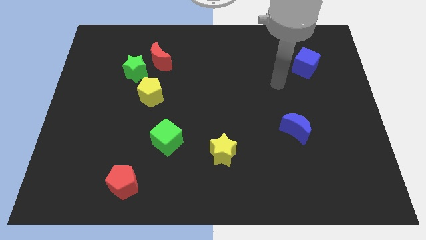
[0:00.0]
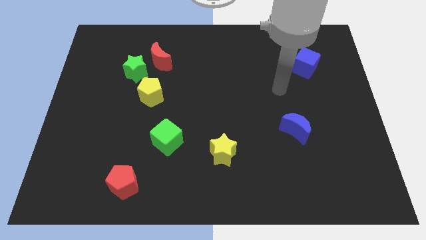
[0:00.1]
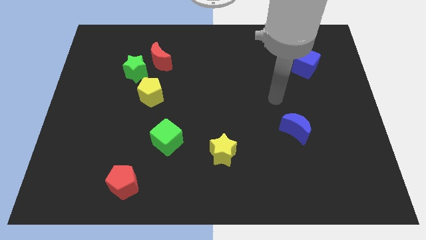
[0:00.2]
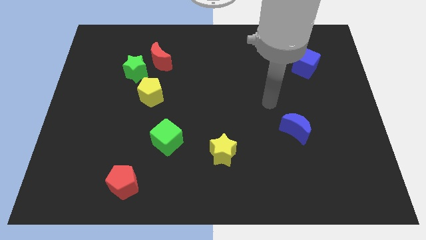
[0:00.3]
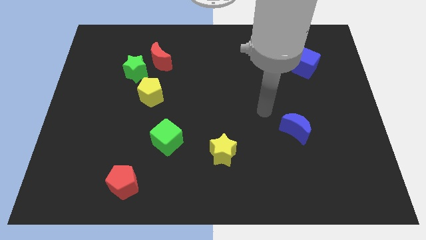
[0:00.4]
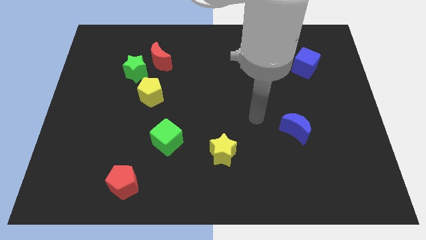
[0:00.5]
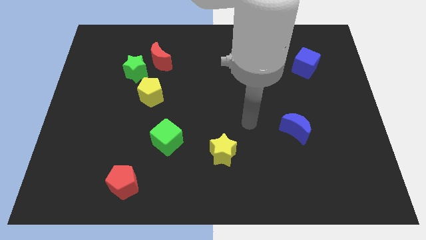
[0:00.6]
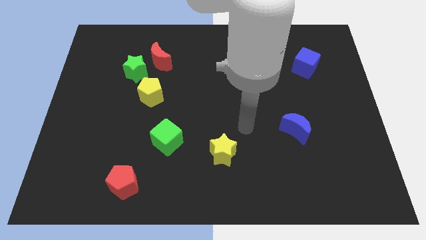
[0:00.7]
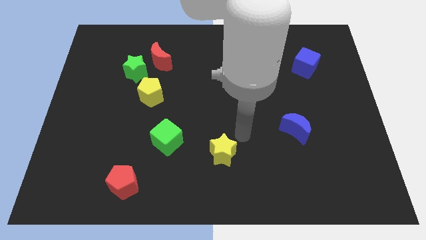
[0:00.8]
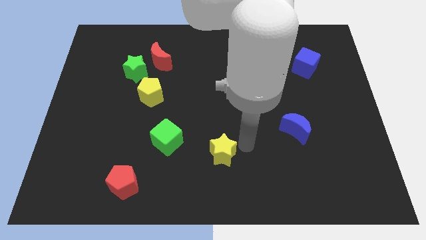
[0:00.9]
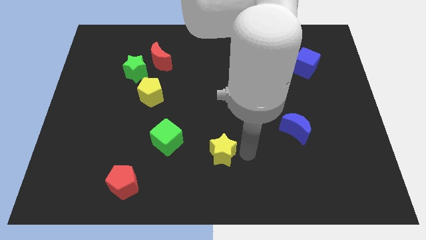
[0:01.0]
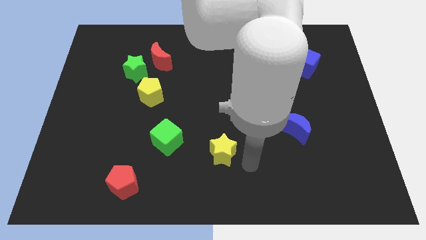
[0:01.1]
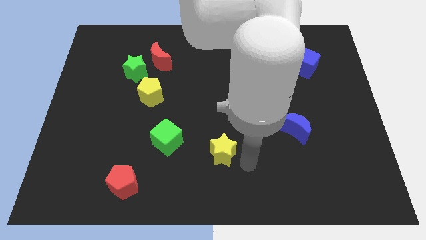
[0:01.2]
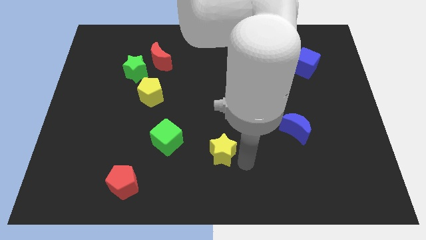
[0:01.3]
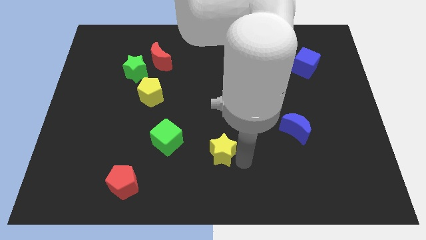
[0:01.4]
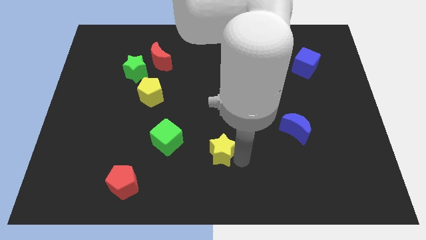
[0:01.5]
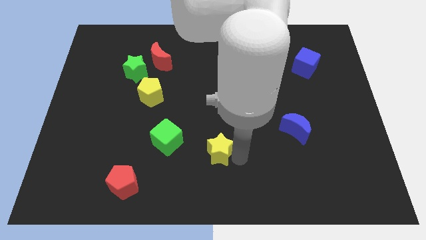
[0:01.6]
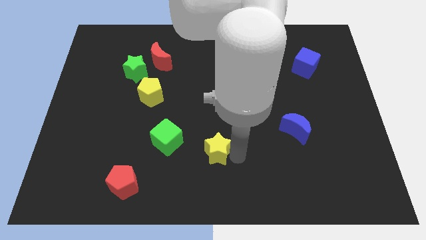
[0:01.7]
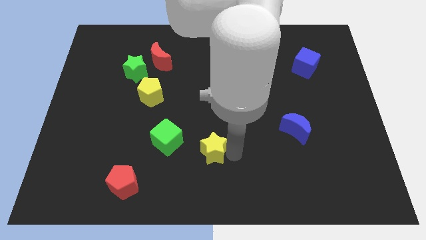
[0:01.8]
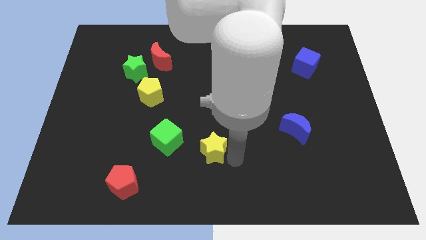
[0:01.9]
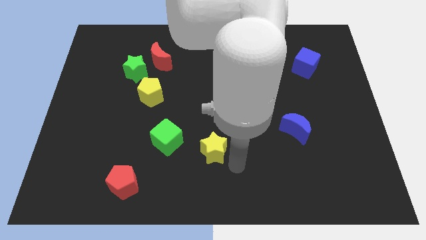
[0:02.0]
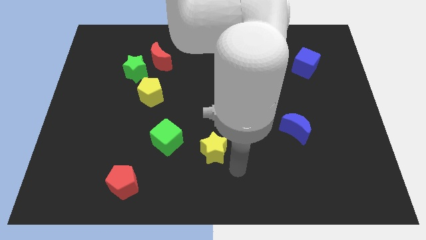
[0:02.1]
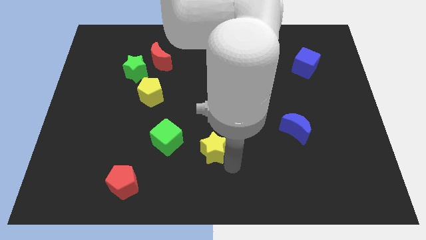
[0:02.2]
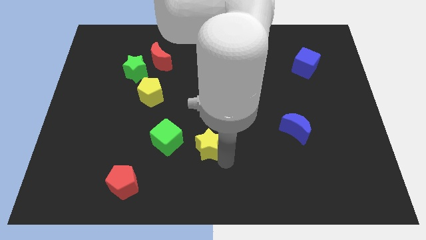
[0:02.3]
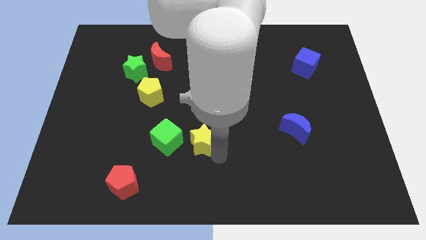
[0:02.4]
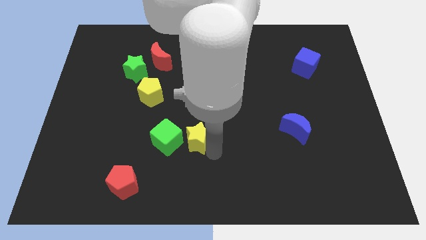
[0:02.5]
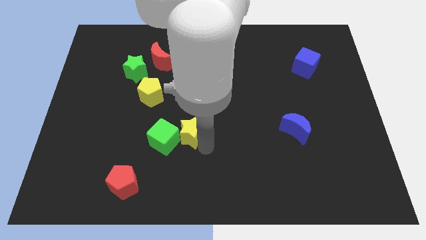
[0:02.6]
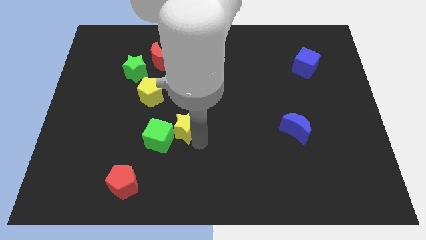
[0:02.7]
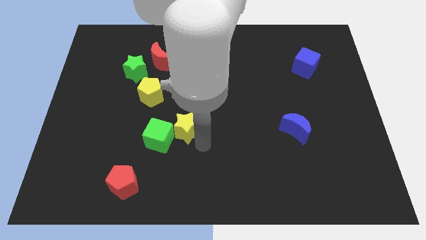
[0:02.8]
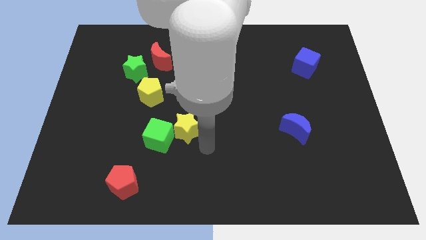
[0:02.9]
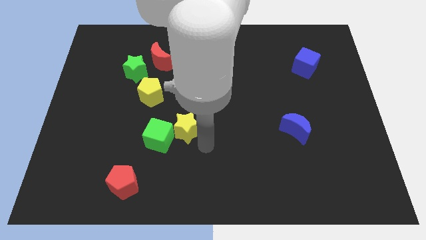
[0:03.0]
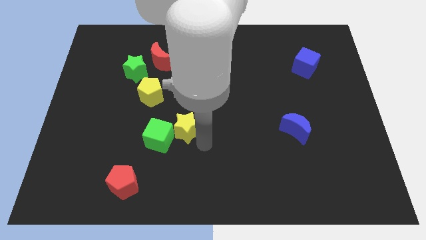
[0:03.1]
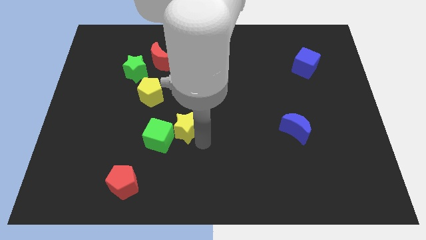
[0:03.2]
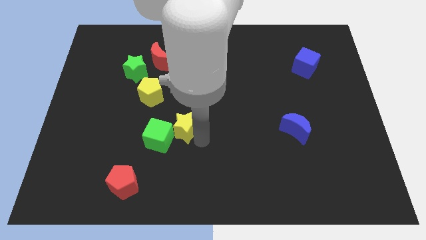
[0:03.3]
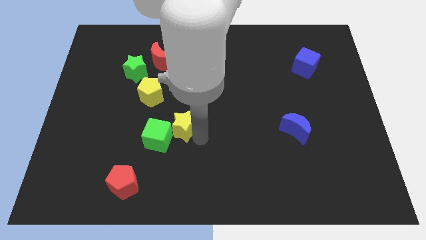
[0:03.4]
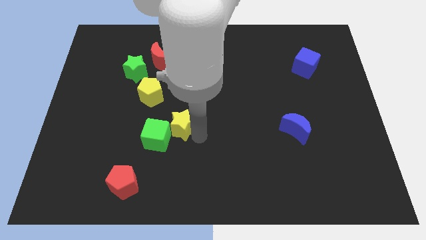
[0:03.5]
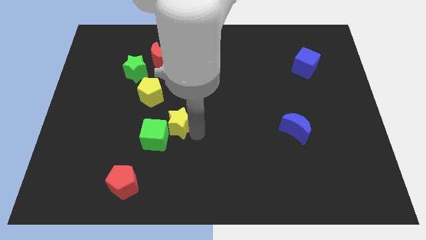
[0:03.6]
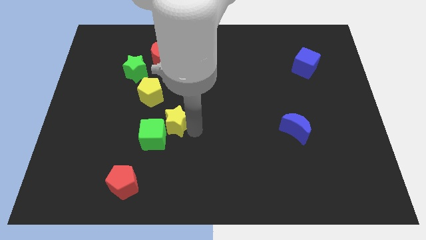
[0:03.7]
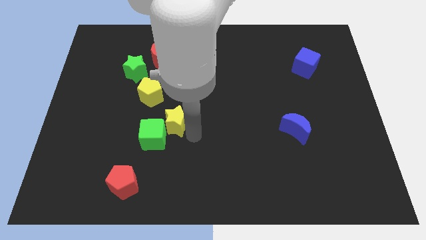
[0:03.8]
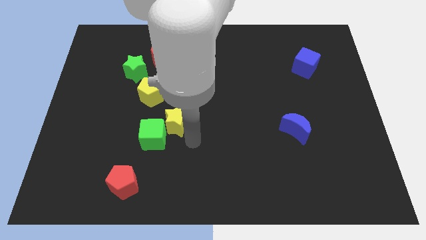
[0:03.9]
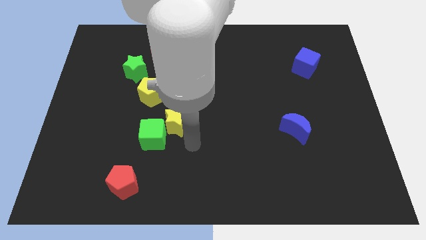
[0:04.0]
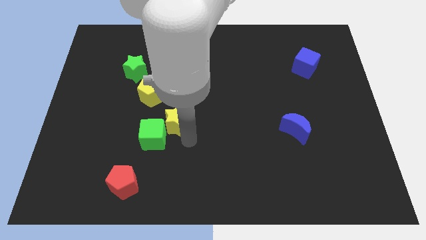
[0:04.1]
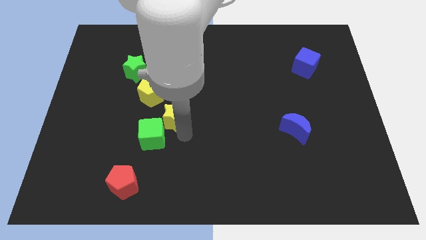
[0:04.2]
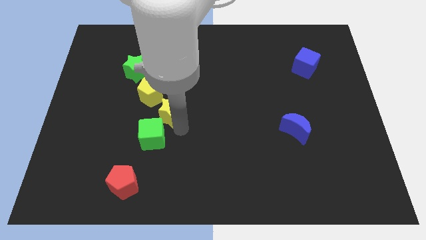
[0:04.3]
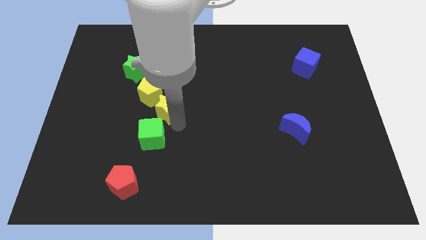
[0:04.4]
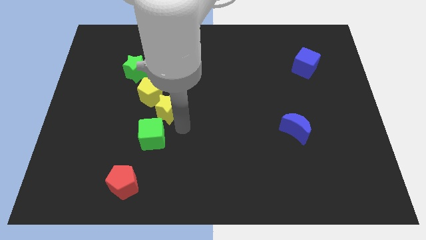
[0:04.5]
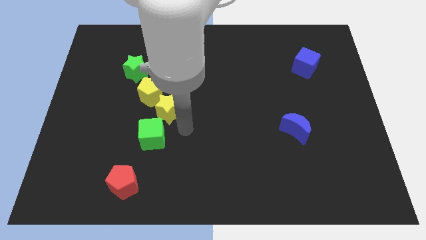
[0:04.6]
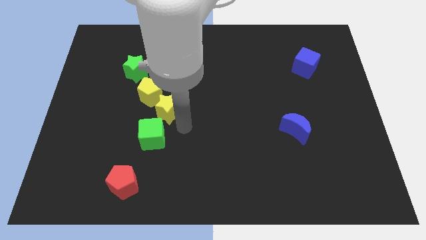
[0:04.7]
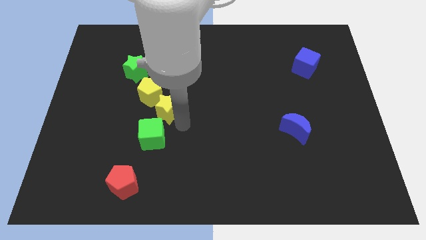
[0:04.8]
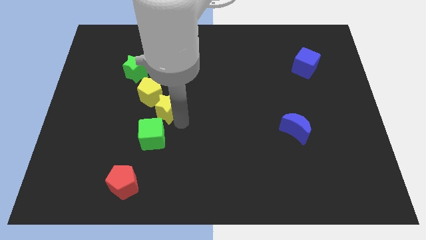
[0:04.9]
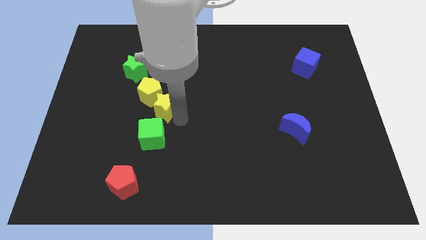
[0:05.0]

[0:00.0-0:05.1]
move the yellow star next to the yellow pentagon

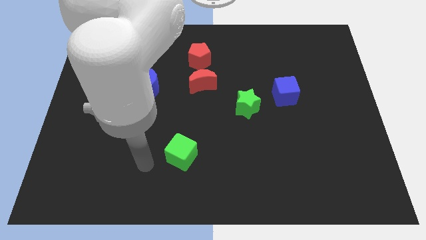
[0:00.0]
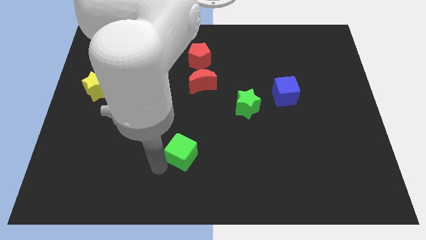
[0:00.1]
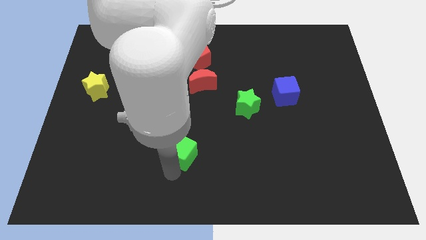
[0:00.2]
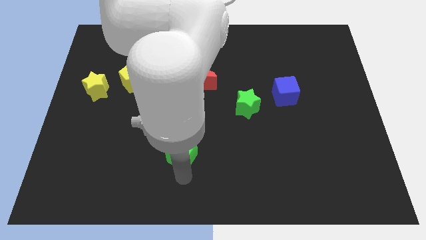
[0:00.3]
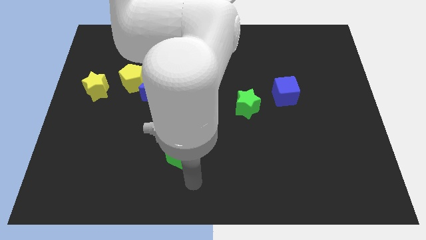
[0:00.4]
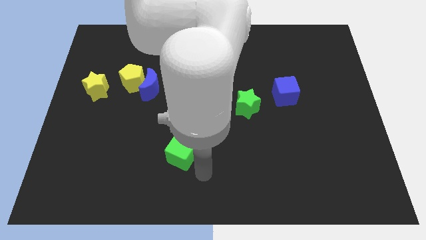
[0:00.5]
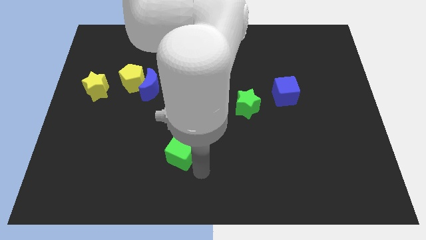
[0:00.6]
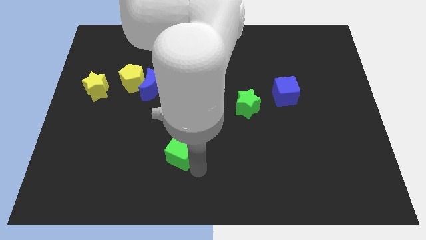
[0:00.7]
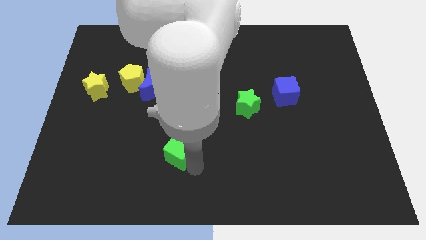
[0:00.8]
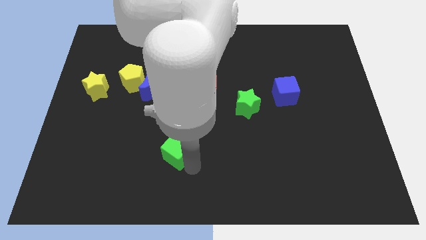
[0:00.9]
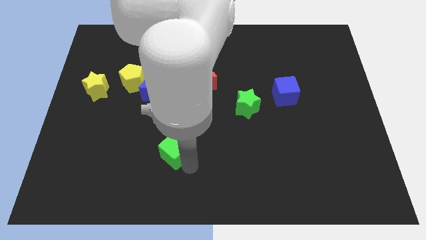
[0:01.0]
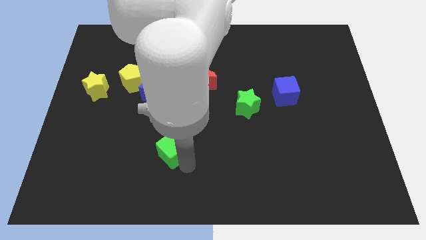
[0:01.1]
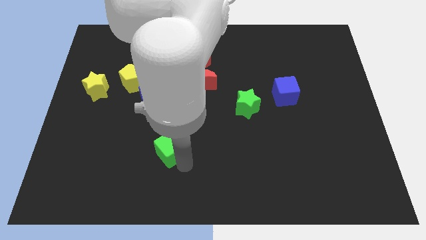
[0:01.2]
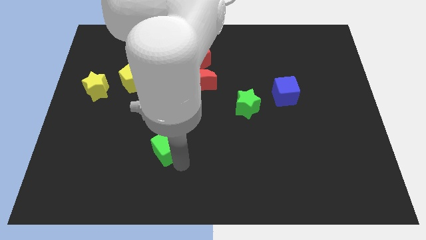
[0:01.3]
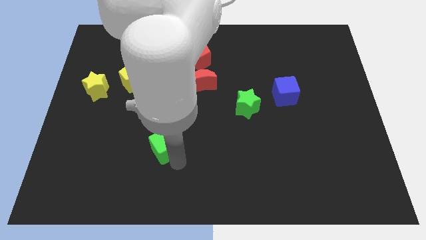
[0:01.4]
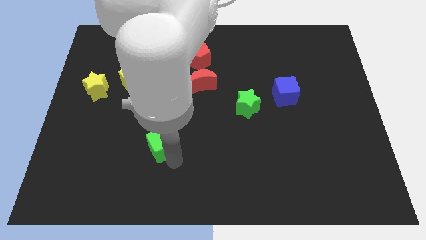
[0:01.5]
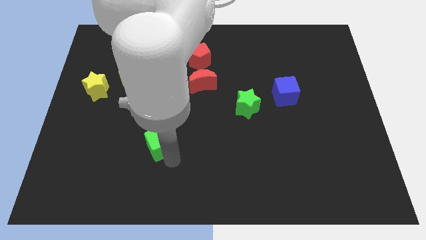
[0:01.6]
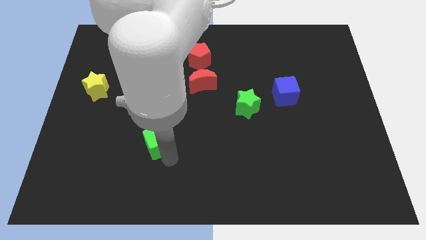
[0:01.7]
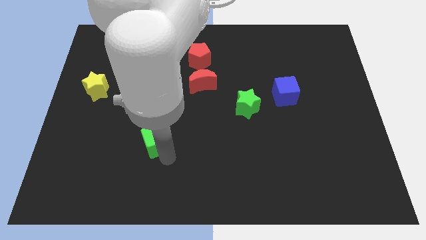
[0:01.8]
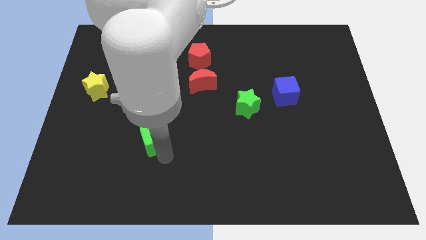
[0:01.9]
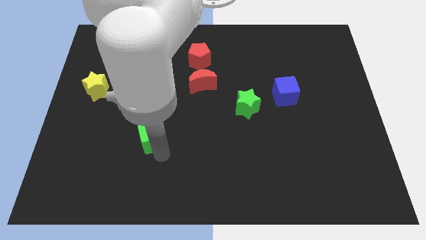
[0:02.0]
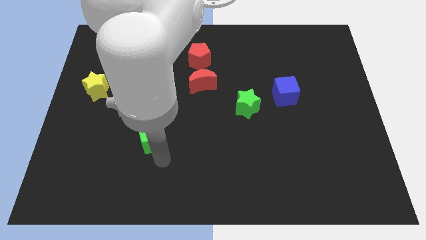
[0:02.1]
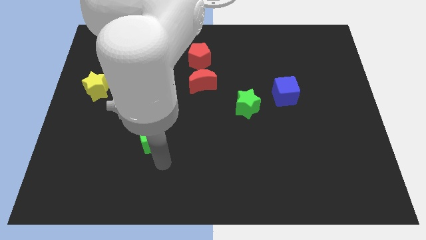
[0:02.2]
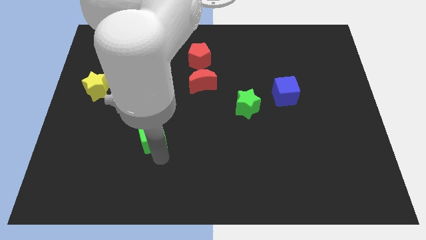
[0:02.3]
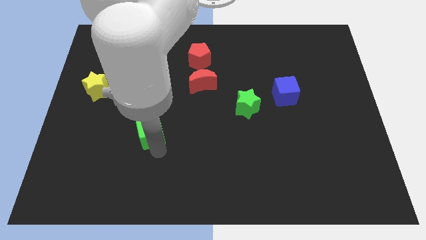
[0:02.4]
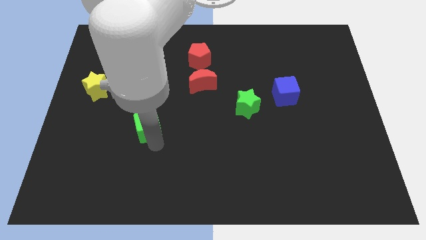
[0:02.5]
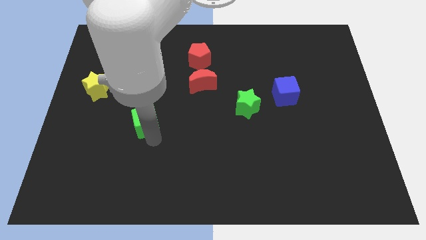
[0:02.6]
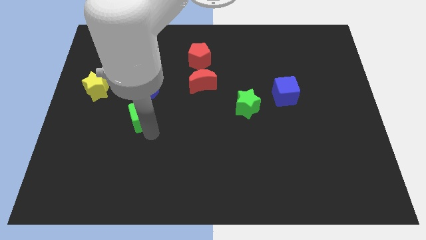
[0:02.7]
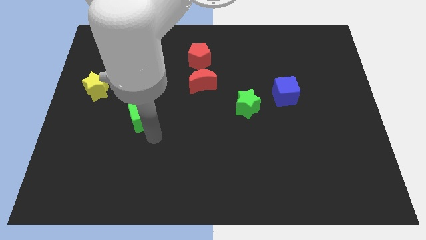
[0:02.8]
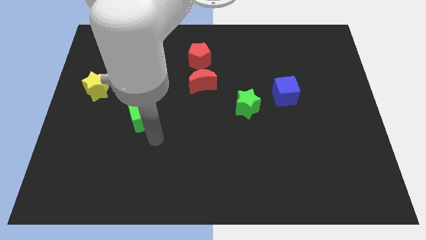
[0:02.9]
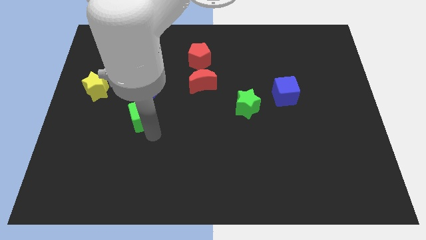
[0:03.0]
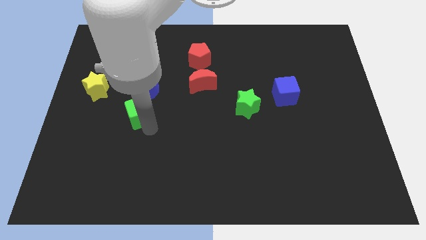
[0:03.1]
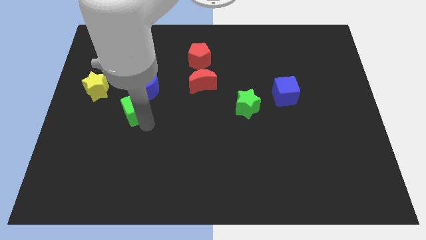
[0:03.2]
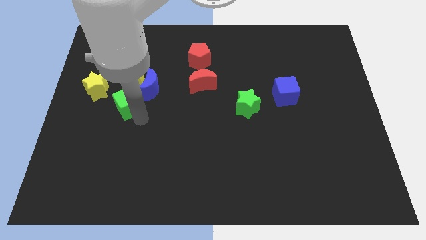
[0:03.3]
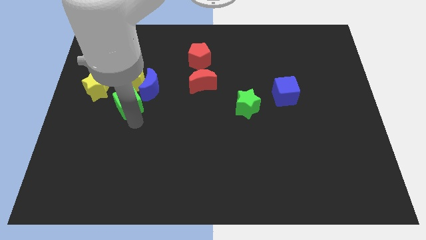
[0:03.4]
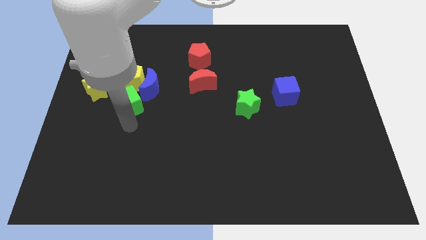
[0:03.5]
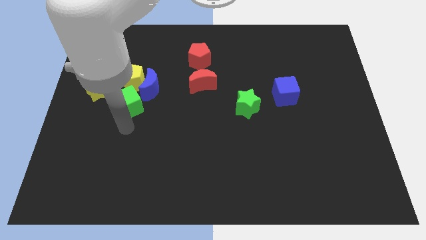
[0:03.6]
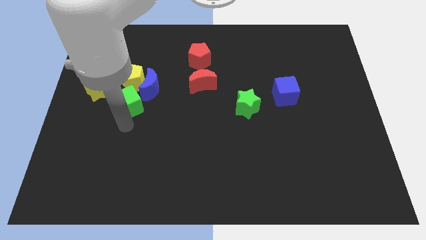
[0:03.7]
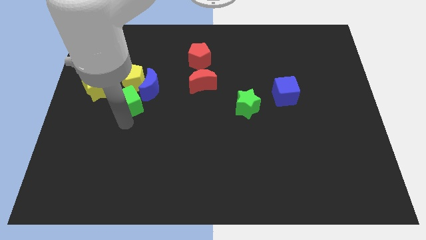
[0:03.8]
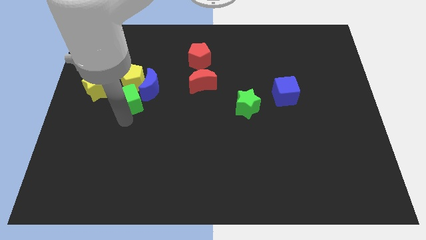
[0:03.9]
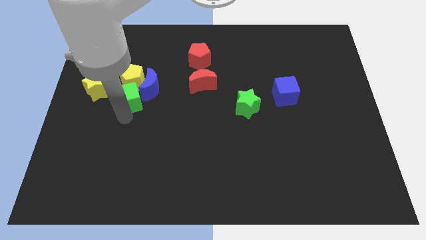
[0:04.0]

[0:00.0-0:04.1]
put the green cube to the yellow pentagon
